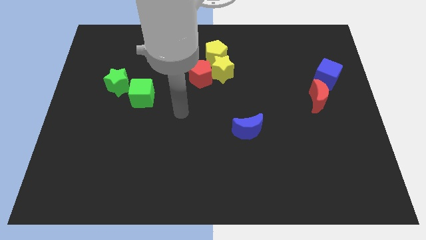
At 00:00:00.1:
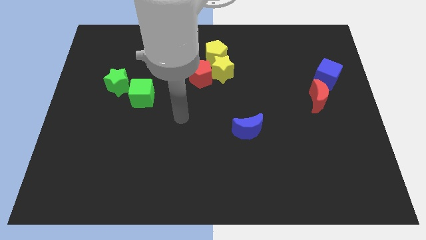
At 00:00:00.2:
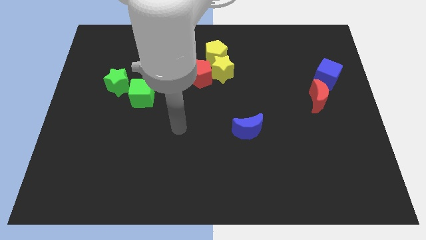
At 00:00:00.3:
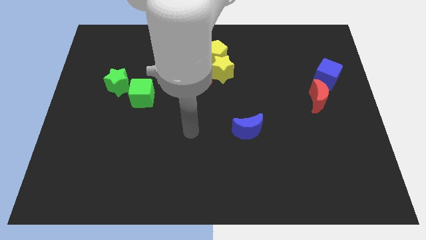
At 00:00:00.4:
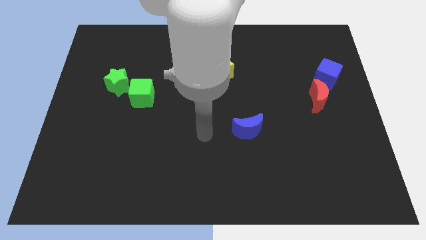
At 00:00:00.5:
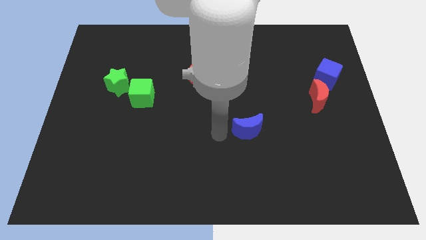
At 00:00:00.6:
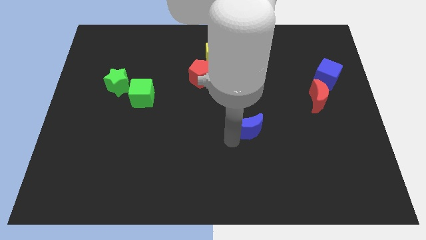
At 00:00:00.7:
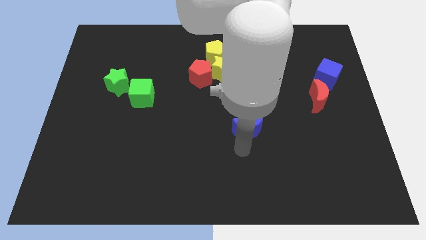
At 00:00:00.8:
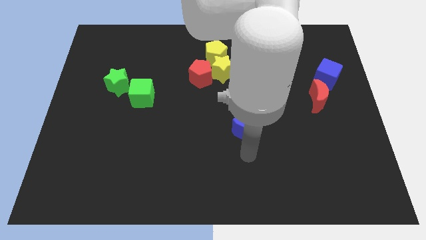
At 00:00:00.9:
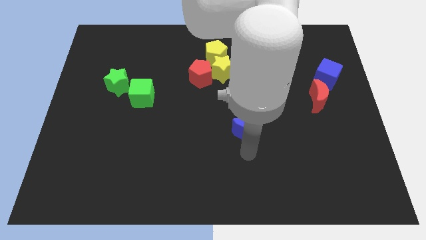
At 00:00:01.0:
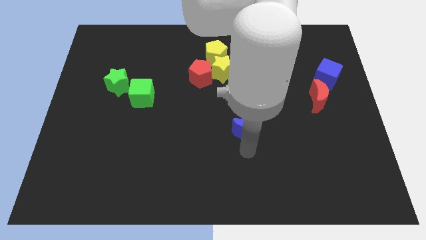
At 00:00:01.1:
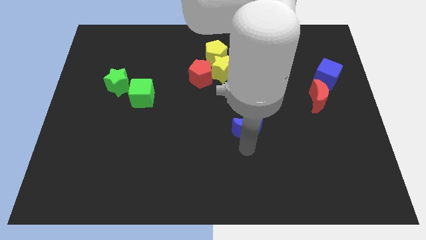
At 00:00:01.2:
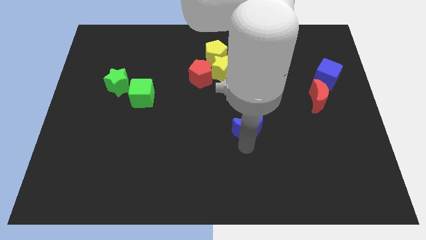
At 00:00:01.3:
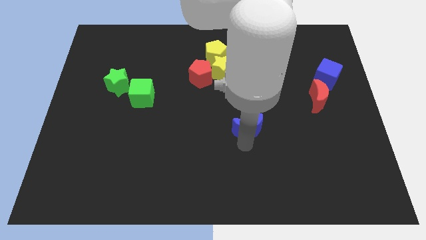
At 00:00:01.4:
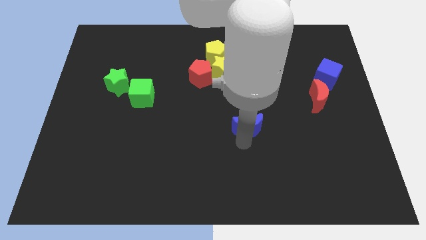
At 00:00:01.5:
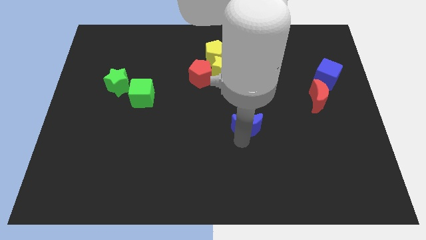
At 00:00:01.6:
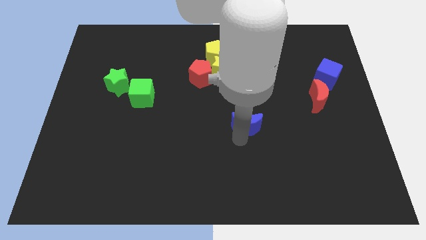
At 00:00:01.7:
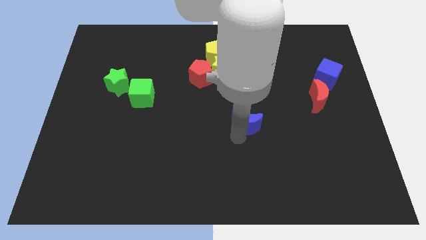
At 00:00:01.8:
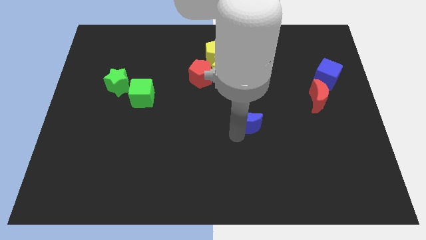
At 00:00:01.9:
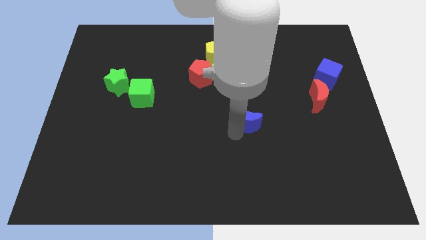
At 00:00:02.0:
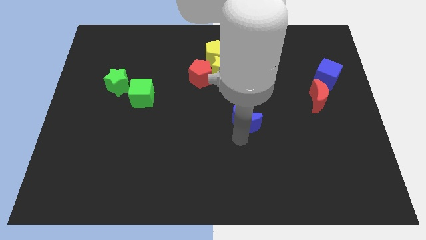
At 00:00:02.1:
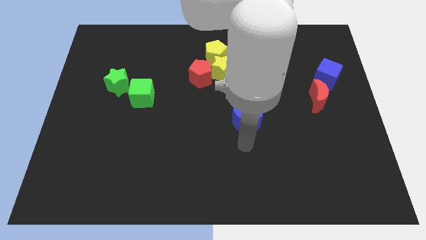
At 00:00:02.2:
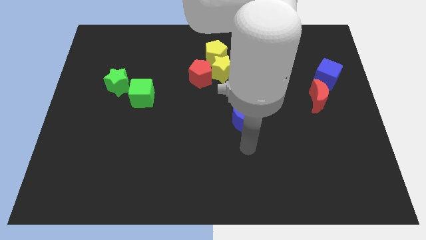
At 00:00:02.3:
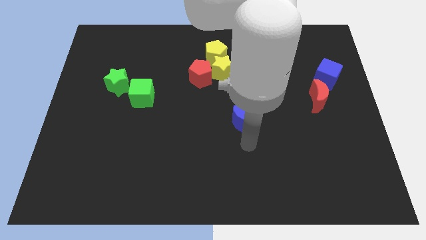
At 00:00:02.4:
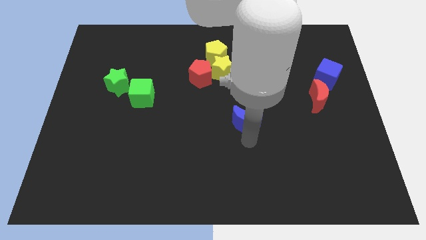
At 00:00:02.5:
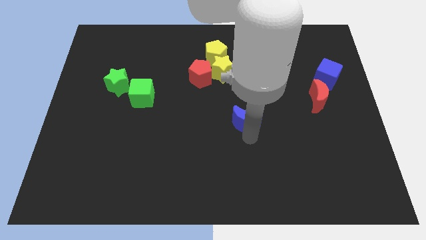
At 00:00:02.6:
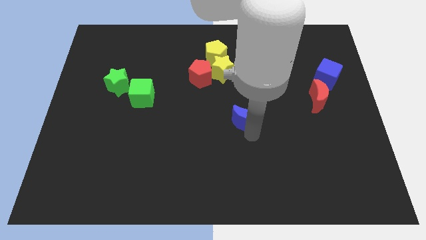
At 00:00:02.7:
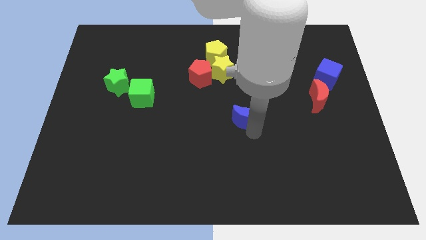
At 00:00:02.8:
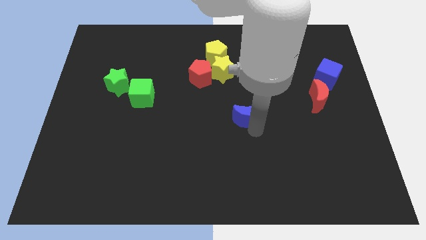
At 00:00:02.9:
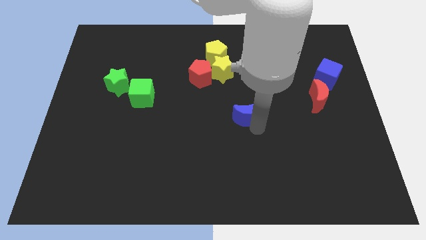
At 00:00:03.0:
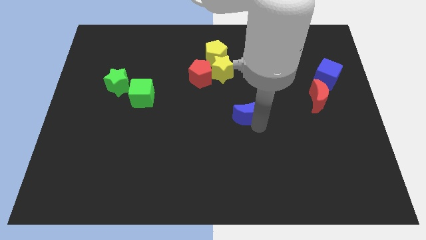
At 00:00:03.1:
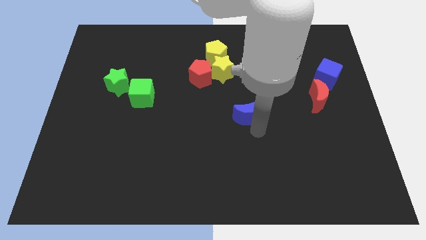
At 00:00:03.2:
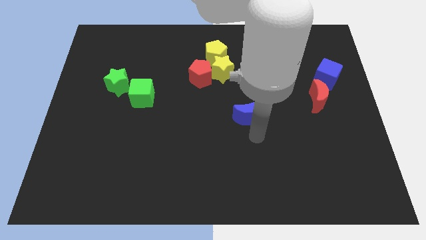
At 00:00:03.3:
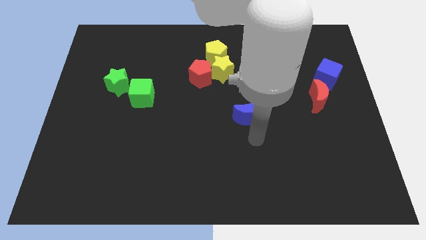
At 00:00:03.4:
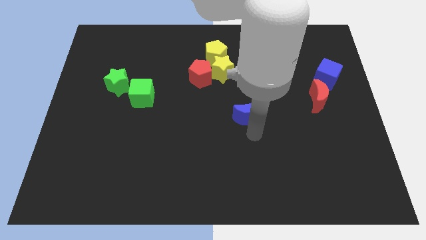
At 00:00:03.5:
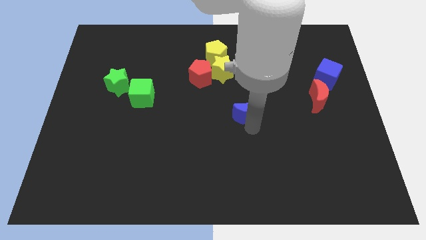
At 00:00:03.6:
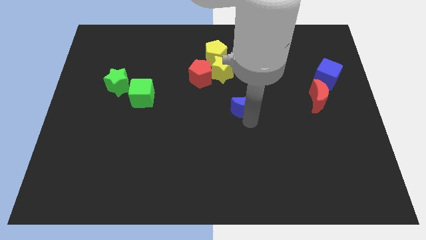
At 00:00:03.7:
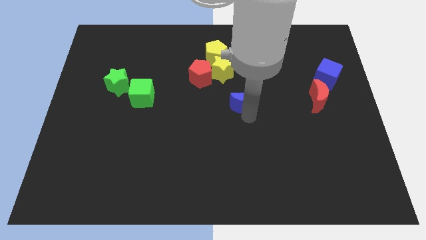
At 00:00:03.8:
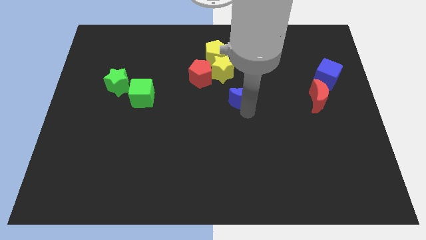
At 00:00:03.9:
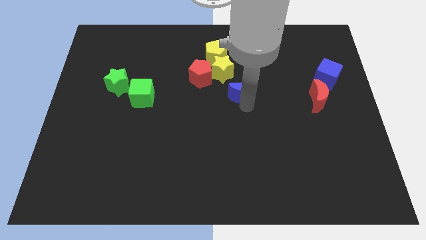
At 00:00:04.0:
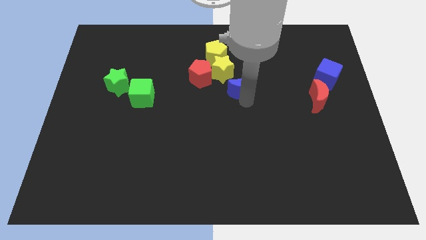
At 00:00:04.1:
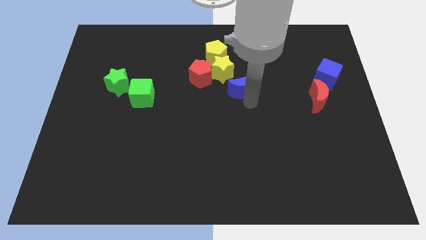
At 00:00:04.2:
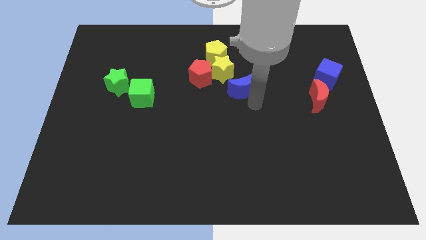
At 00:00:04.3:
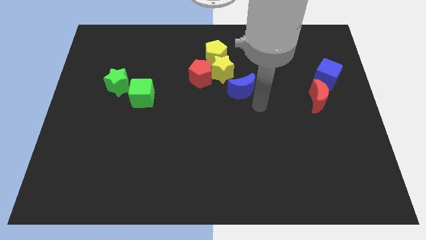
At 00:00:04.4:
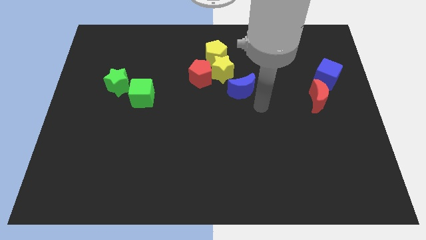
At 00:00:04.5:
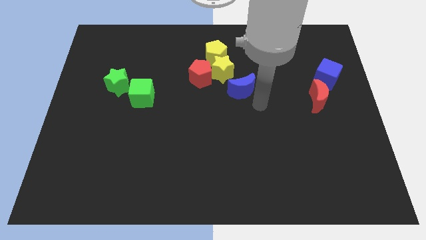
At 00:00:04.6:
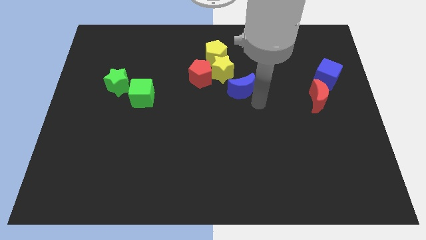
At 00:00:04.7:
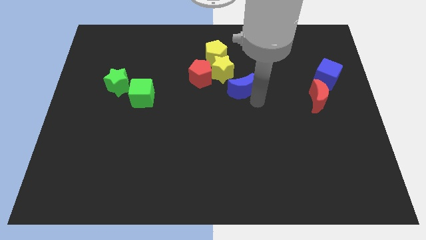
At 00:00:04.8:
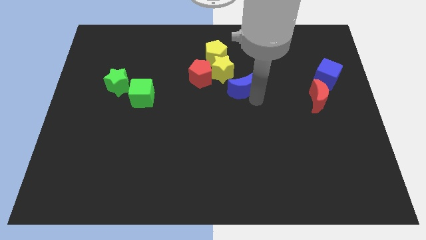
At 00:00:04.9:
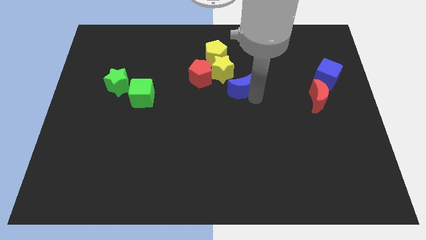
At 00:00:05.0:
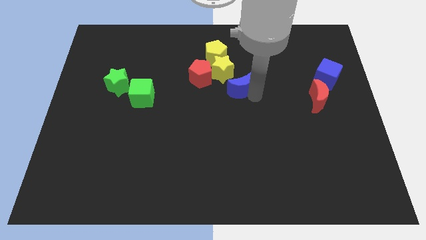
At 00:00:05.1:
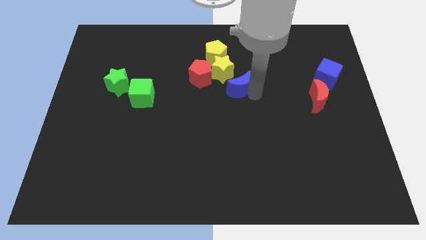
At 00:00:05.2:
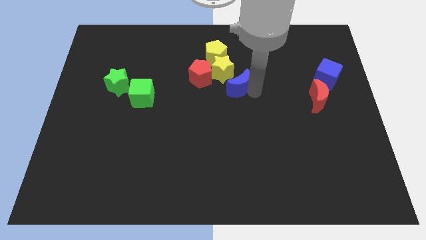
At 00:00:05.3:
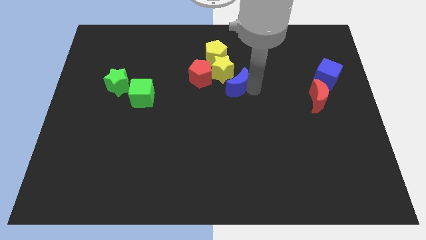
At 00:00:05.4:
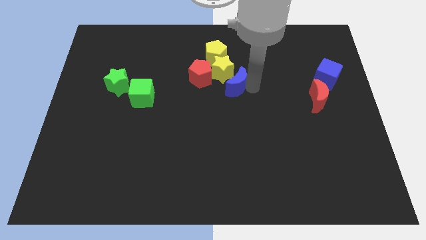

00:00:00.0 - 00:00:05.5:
slide the blue moon next to the yellow star

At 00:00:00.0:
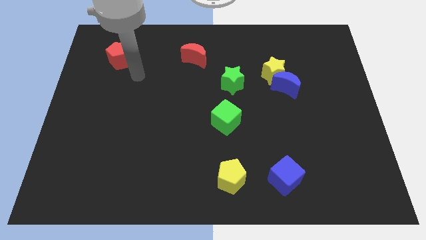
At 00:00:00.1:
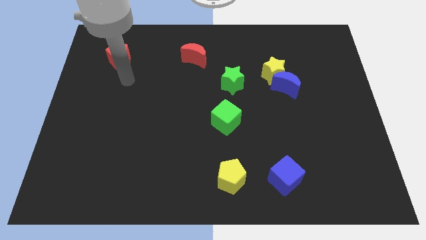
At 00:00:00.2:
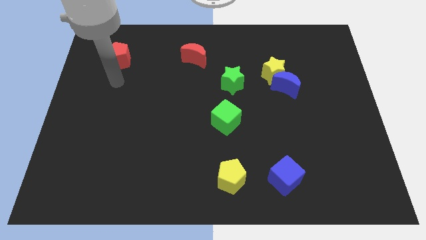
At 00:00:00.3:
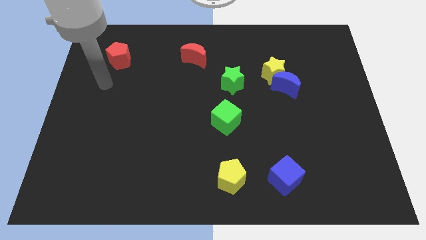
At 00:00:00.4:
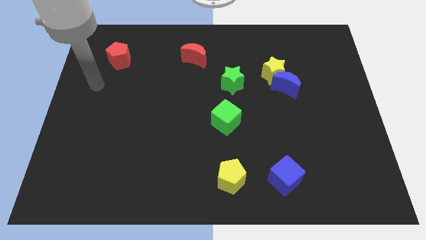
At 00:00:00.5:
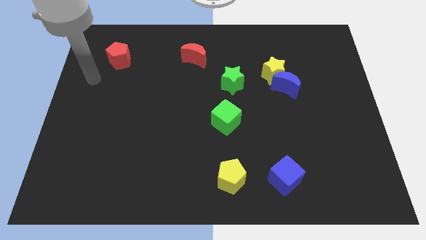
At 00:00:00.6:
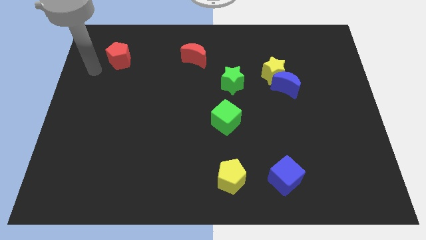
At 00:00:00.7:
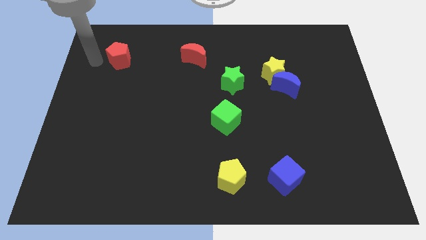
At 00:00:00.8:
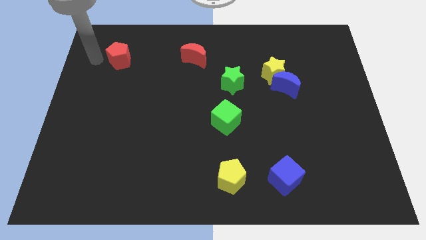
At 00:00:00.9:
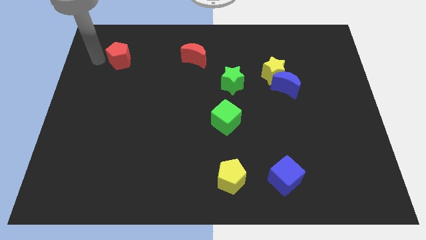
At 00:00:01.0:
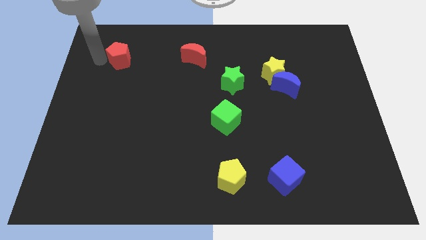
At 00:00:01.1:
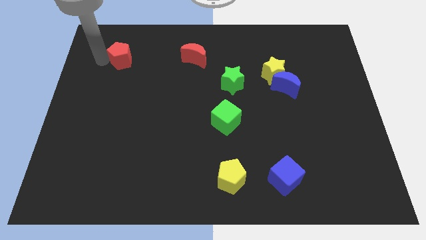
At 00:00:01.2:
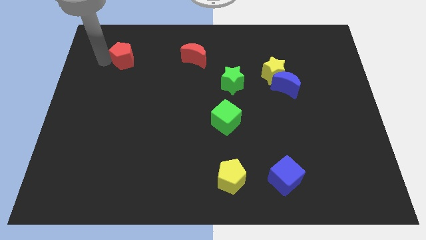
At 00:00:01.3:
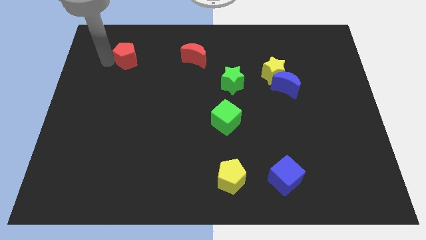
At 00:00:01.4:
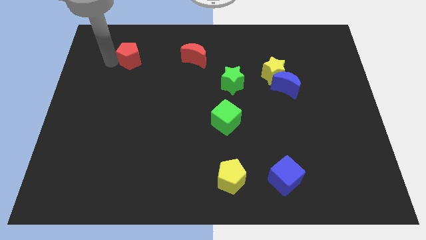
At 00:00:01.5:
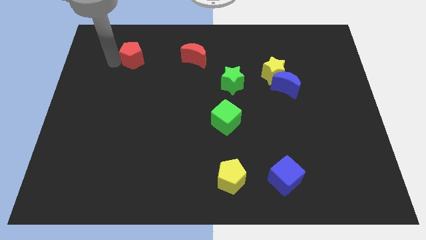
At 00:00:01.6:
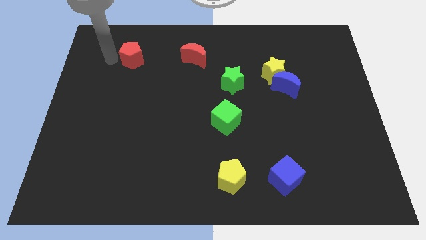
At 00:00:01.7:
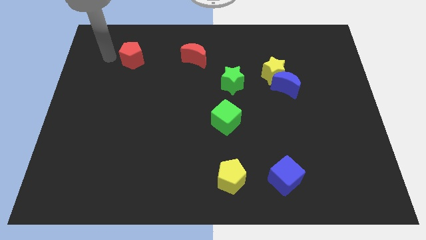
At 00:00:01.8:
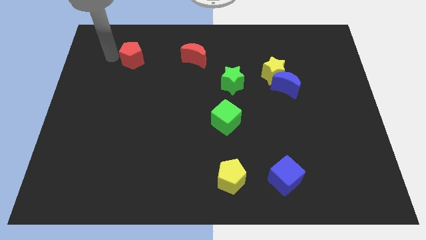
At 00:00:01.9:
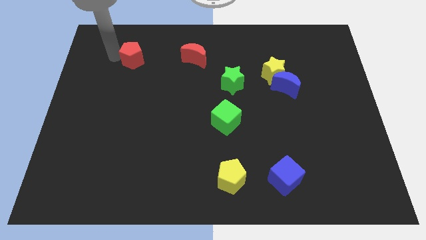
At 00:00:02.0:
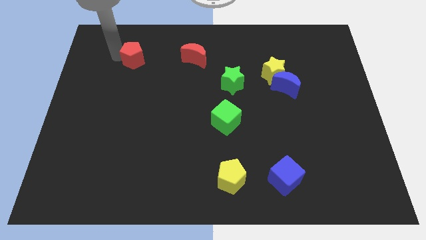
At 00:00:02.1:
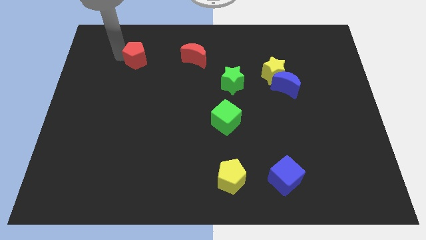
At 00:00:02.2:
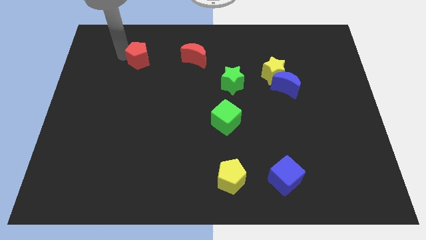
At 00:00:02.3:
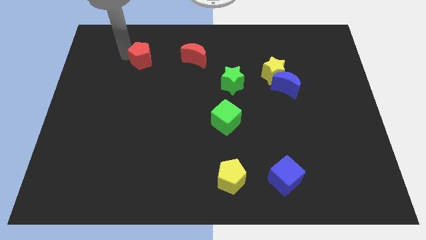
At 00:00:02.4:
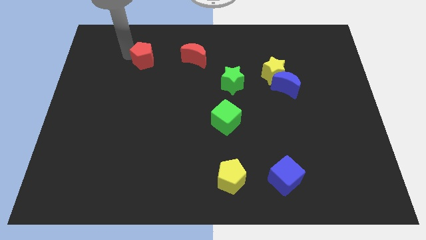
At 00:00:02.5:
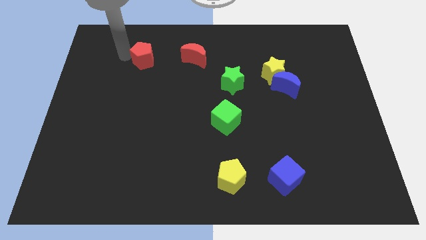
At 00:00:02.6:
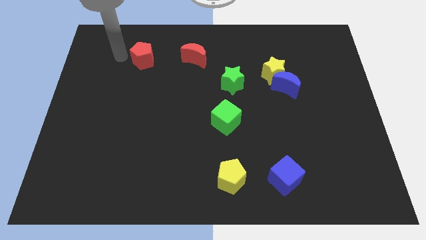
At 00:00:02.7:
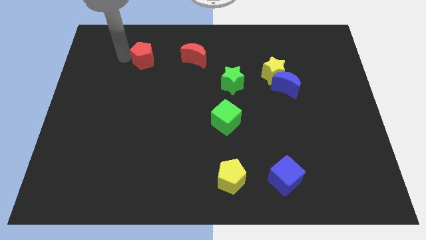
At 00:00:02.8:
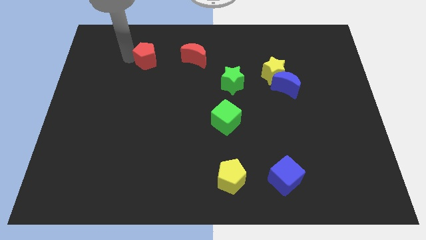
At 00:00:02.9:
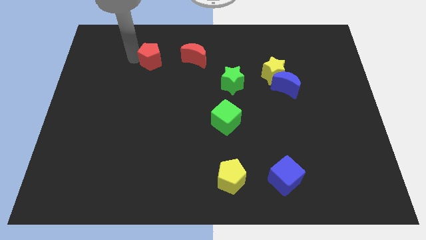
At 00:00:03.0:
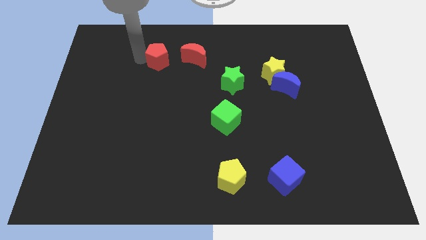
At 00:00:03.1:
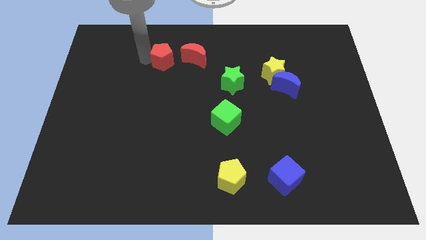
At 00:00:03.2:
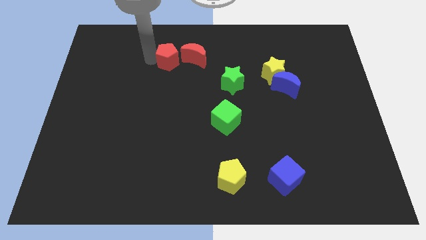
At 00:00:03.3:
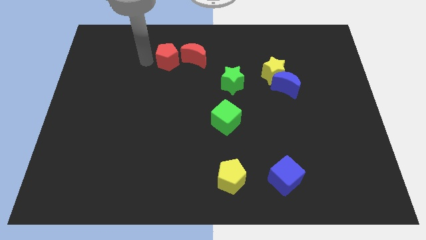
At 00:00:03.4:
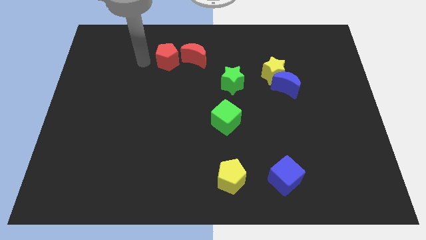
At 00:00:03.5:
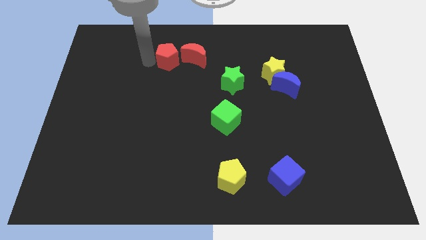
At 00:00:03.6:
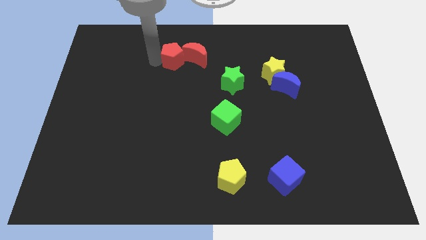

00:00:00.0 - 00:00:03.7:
push the red pentagon close to the red moon
